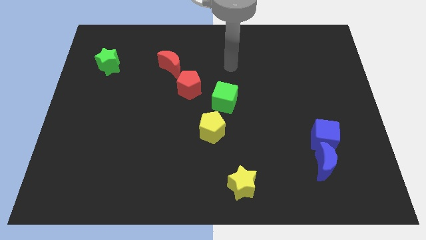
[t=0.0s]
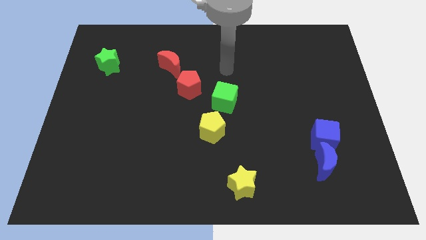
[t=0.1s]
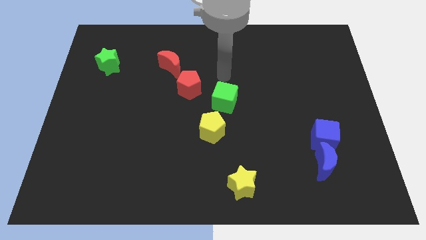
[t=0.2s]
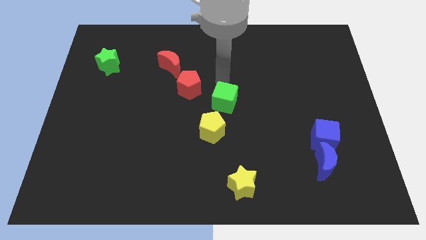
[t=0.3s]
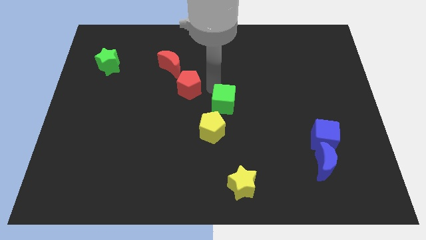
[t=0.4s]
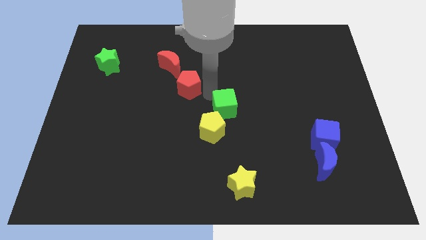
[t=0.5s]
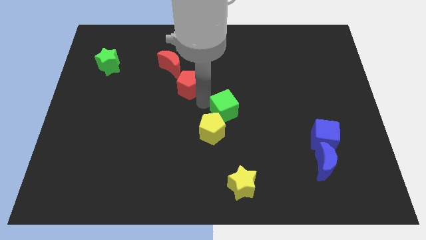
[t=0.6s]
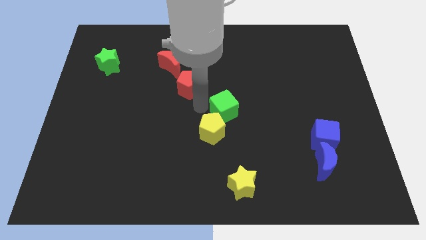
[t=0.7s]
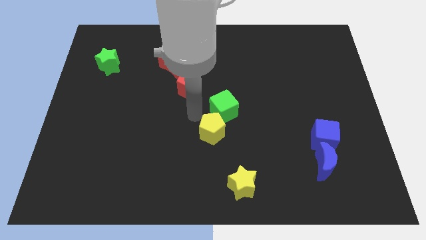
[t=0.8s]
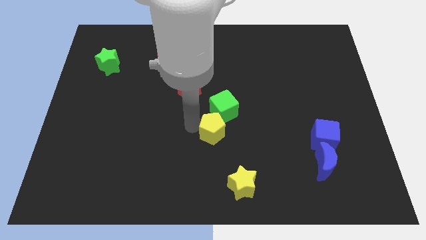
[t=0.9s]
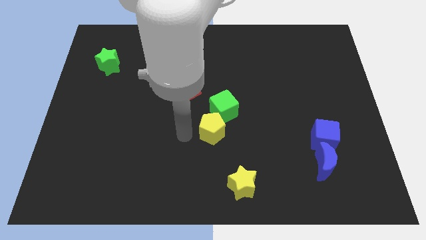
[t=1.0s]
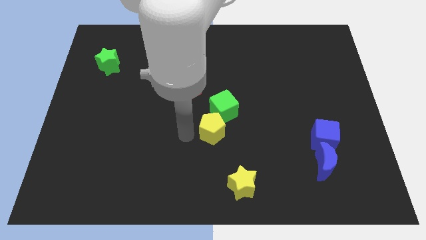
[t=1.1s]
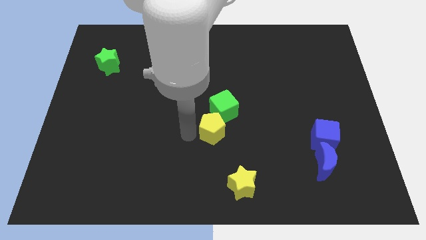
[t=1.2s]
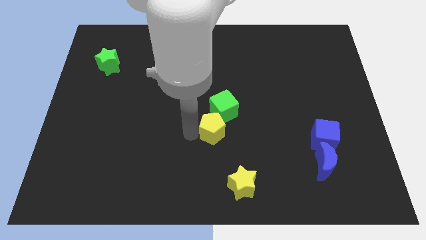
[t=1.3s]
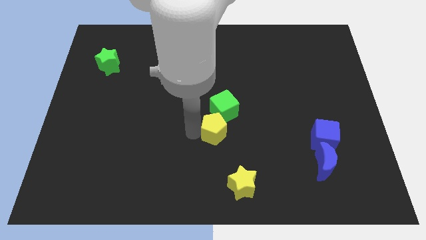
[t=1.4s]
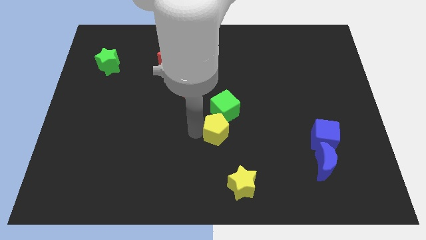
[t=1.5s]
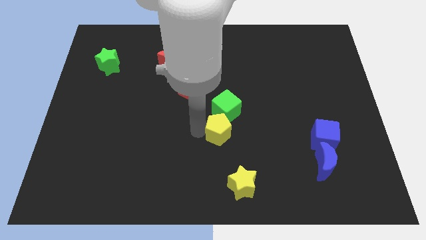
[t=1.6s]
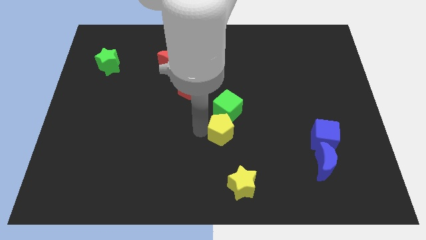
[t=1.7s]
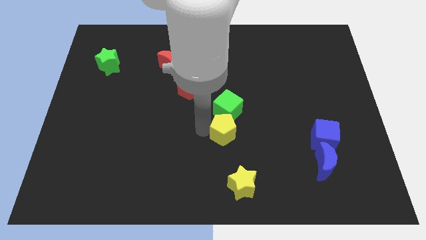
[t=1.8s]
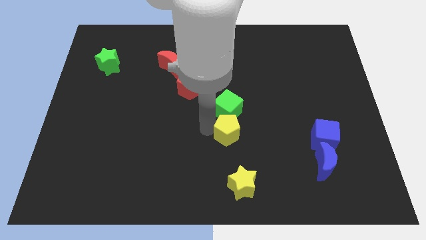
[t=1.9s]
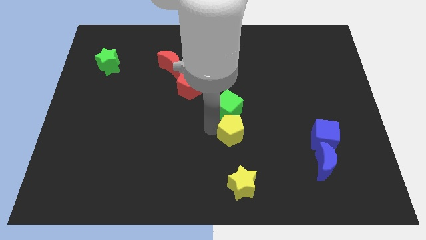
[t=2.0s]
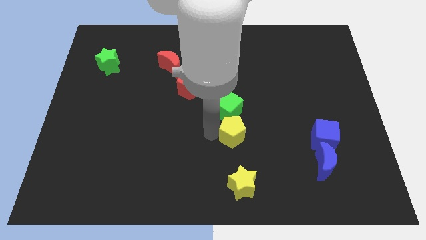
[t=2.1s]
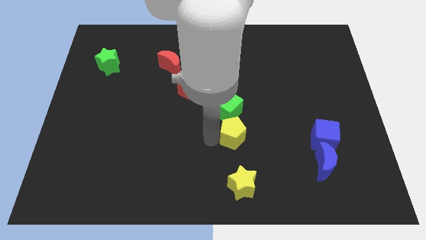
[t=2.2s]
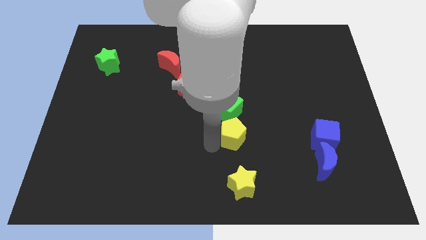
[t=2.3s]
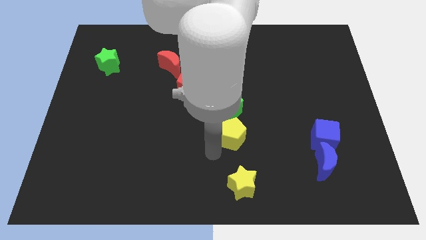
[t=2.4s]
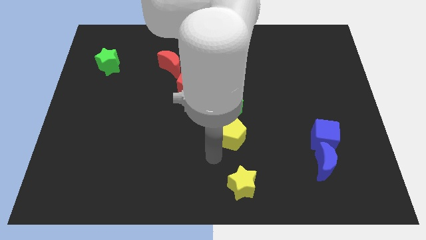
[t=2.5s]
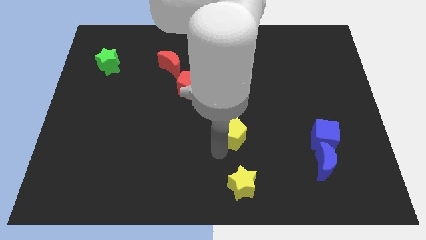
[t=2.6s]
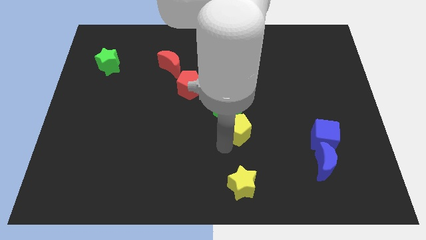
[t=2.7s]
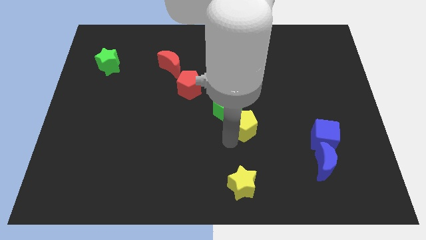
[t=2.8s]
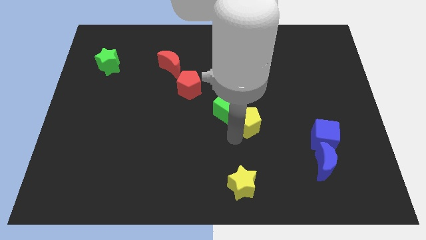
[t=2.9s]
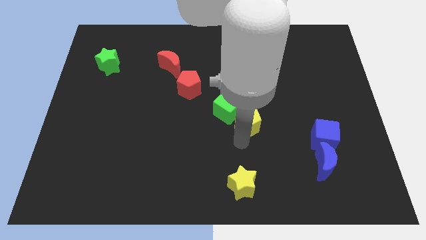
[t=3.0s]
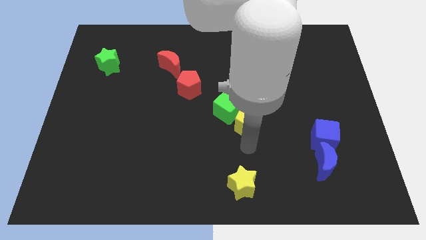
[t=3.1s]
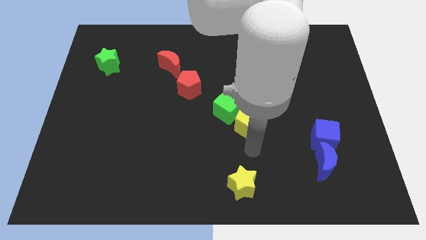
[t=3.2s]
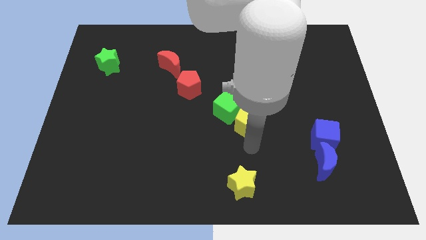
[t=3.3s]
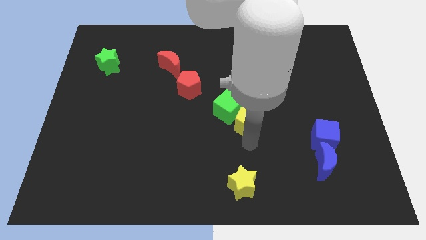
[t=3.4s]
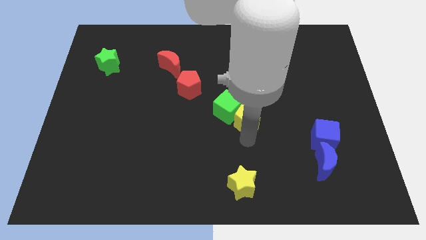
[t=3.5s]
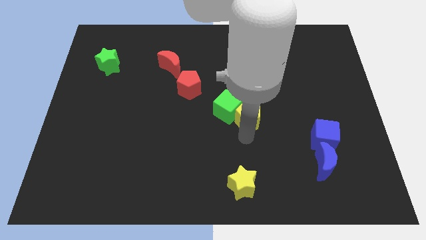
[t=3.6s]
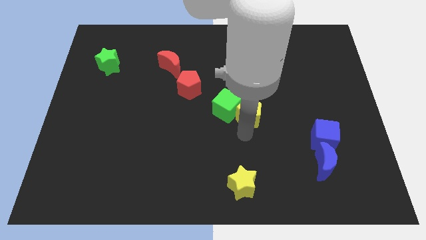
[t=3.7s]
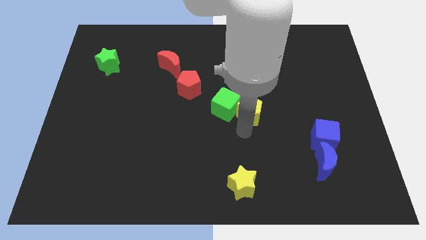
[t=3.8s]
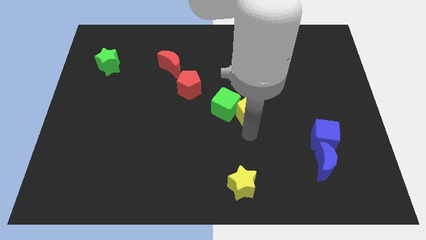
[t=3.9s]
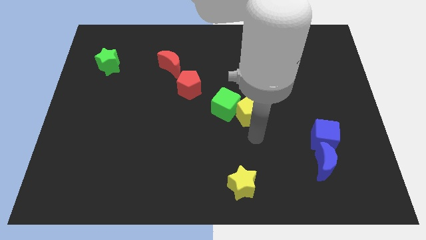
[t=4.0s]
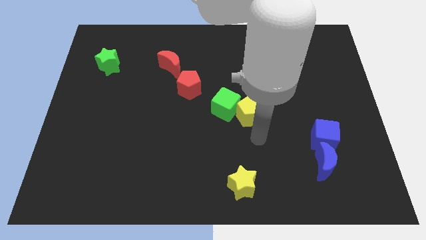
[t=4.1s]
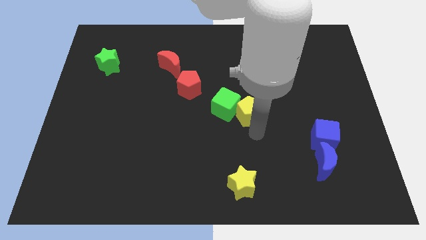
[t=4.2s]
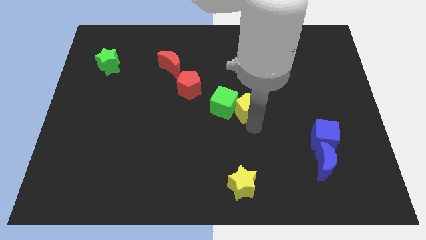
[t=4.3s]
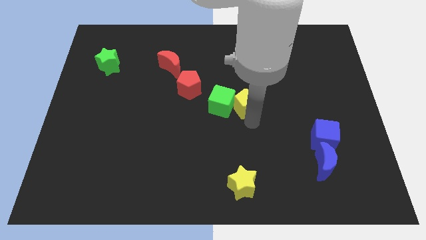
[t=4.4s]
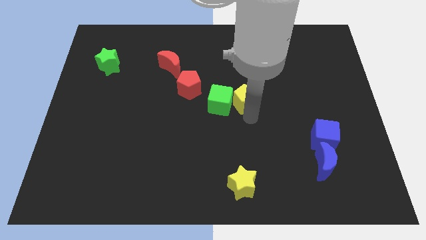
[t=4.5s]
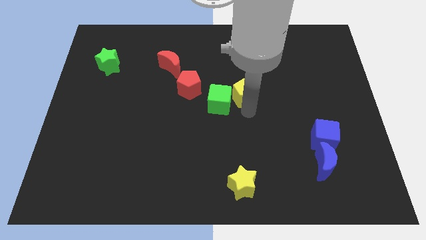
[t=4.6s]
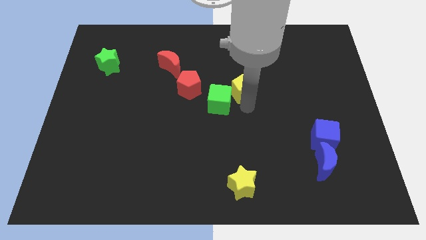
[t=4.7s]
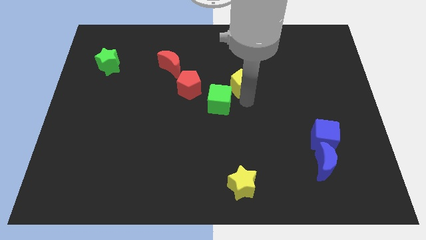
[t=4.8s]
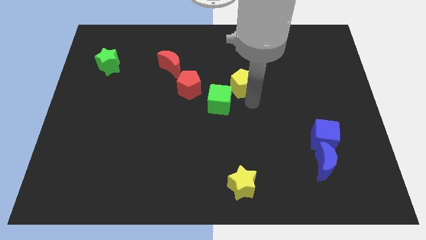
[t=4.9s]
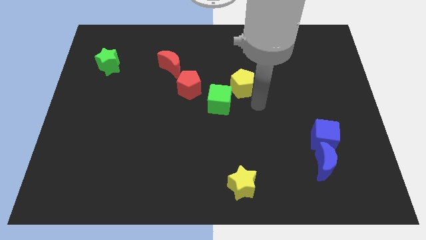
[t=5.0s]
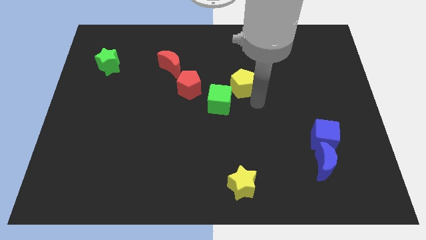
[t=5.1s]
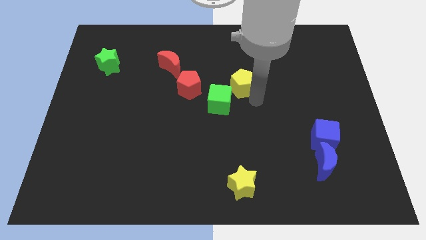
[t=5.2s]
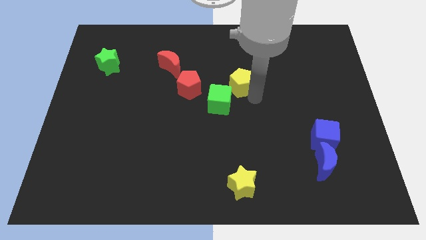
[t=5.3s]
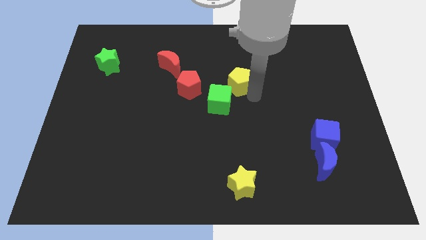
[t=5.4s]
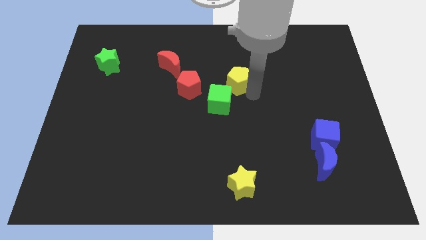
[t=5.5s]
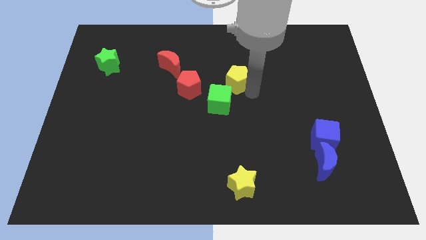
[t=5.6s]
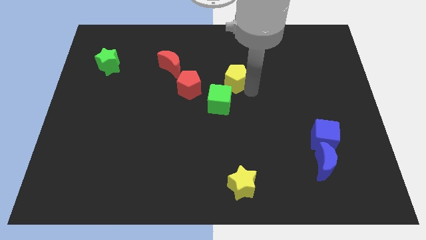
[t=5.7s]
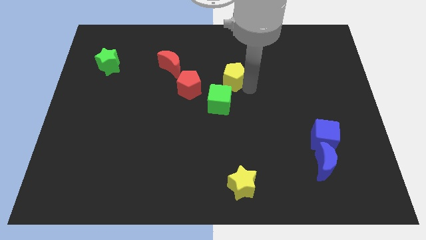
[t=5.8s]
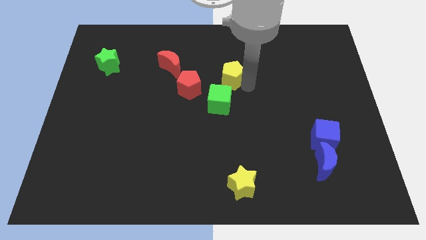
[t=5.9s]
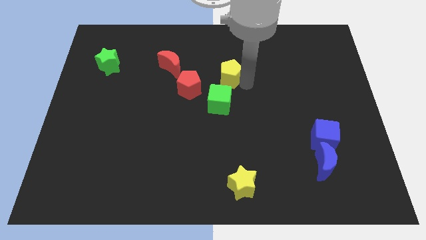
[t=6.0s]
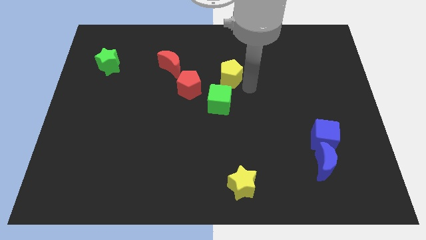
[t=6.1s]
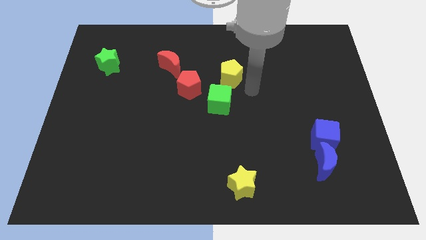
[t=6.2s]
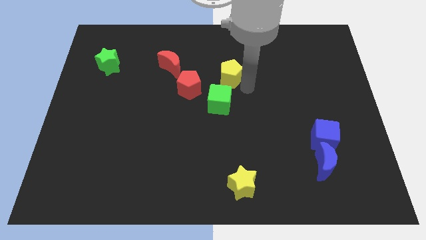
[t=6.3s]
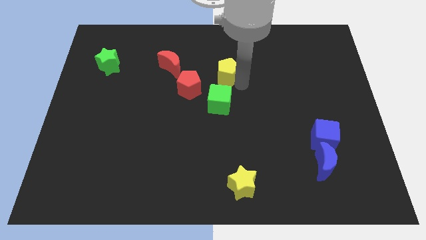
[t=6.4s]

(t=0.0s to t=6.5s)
move the yellow pentagon to the right of the red moon

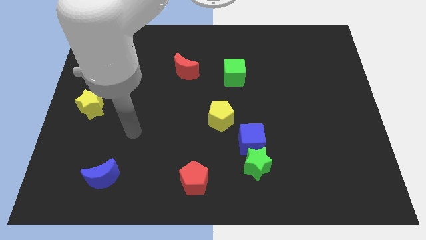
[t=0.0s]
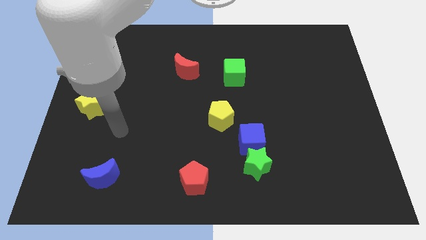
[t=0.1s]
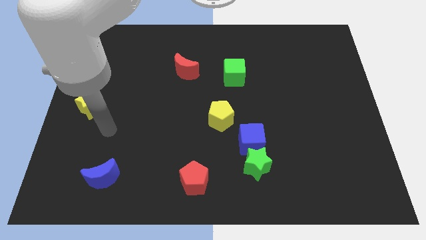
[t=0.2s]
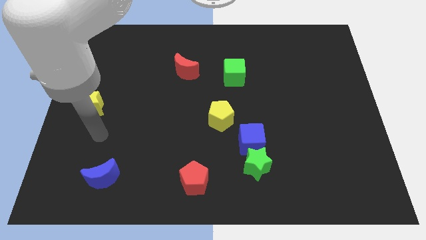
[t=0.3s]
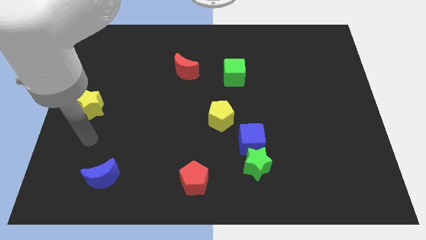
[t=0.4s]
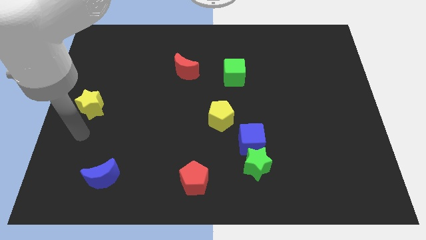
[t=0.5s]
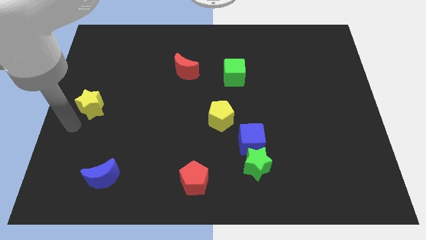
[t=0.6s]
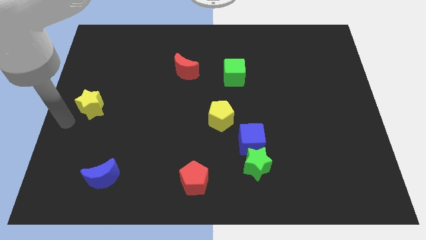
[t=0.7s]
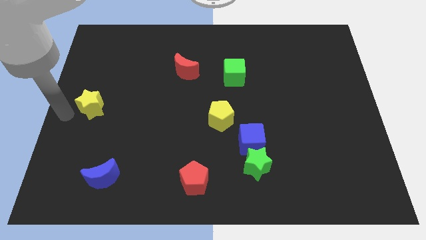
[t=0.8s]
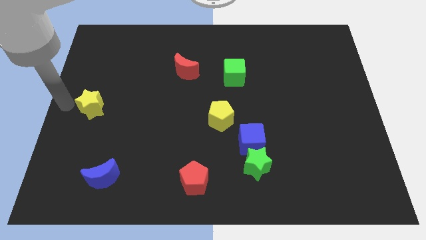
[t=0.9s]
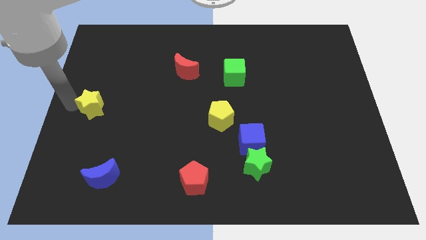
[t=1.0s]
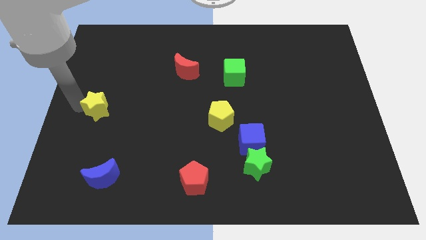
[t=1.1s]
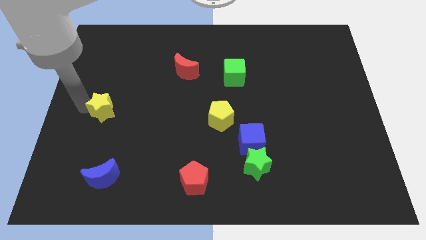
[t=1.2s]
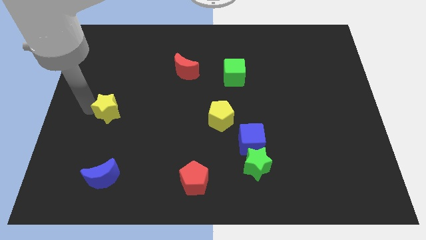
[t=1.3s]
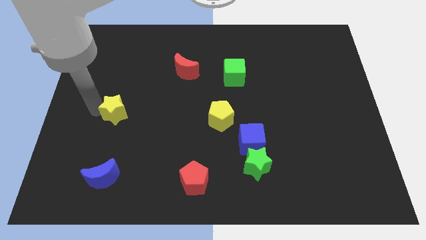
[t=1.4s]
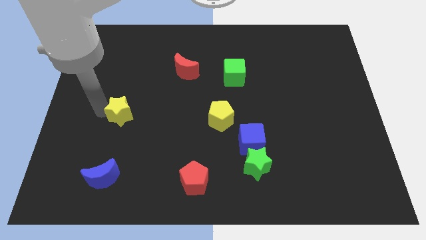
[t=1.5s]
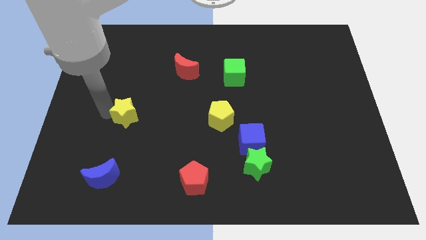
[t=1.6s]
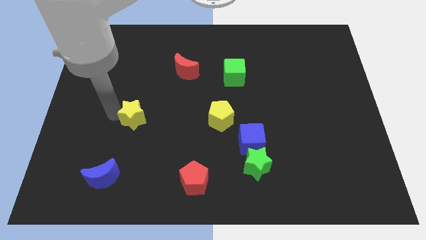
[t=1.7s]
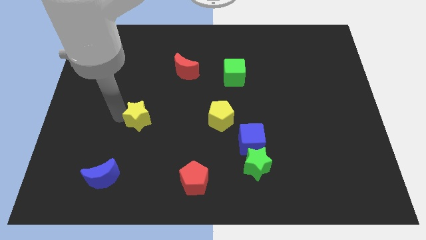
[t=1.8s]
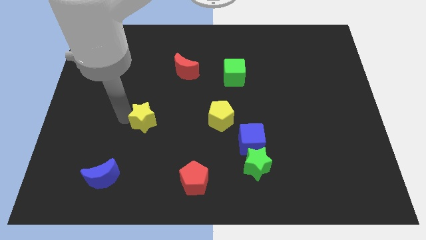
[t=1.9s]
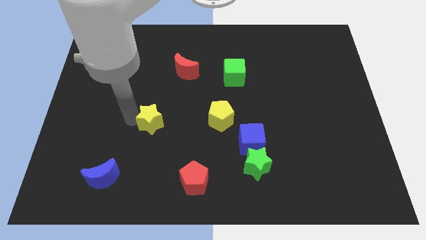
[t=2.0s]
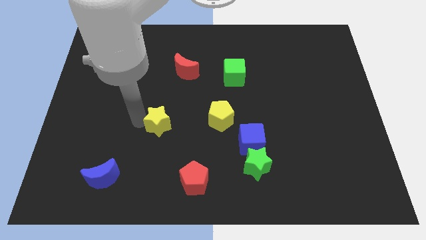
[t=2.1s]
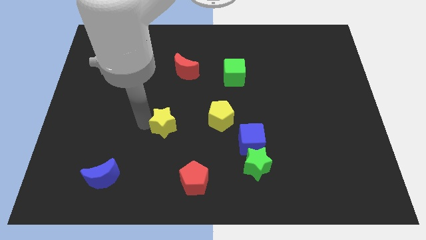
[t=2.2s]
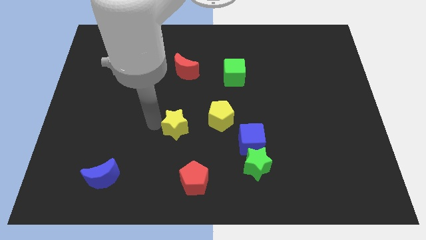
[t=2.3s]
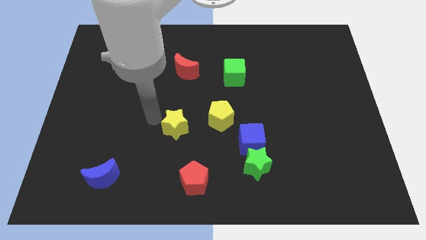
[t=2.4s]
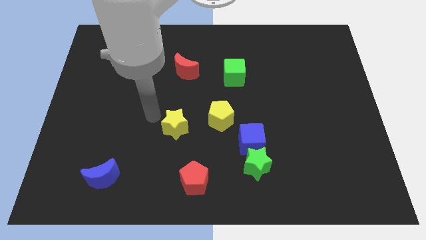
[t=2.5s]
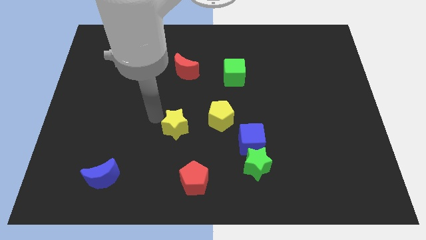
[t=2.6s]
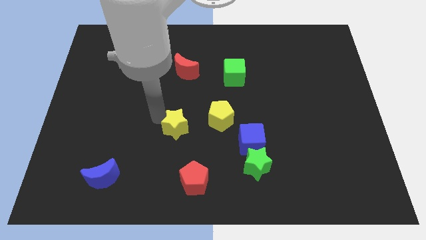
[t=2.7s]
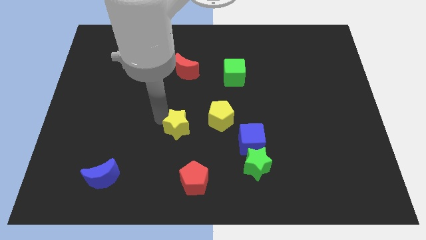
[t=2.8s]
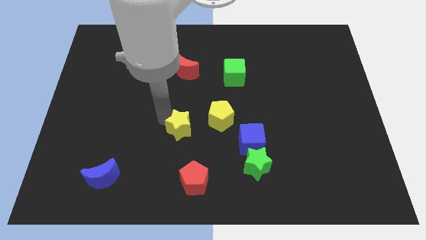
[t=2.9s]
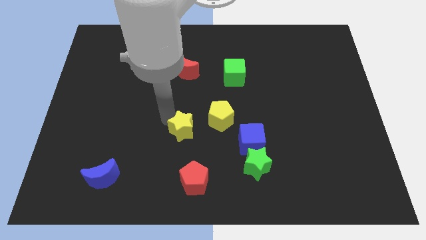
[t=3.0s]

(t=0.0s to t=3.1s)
put the yellow star left of the blue cube
